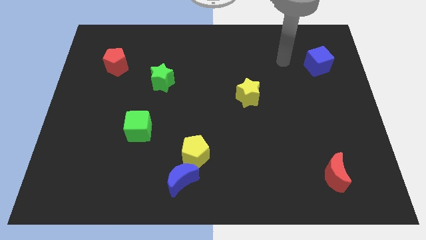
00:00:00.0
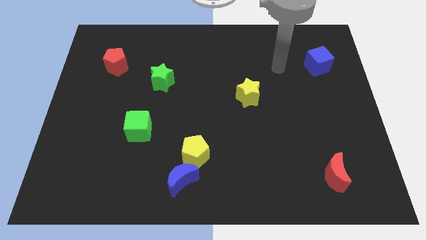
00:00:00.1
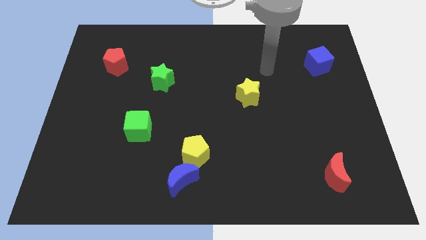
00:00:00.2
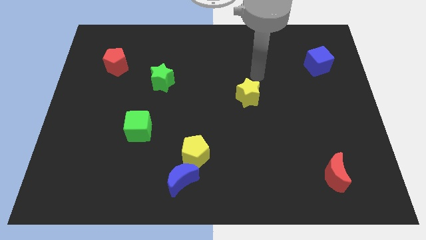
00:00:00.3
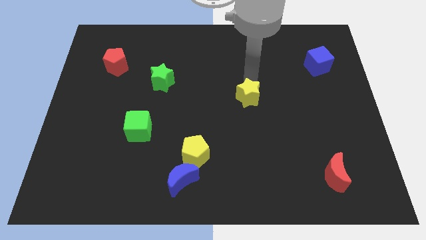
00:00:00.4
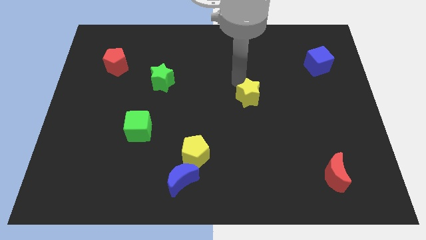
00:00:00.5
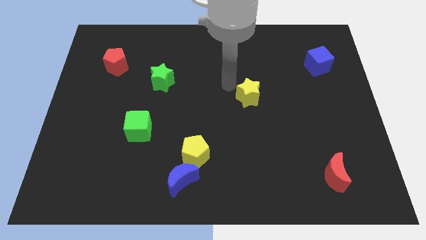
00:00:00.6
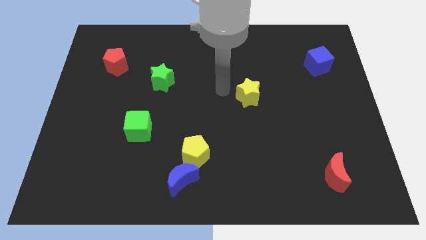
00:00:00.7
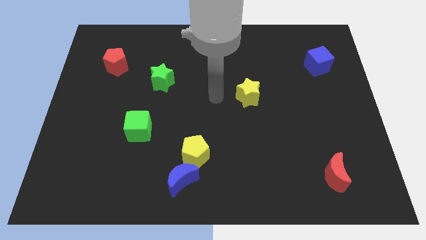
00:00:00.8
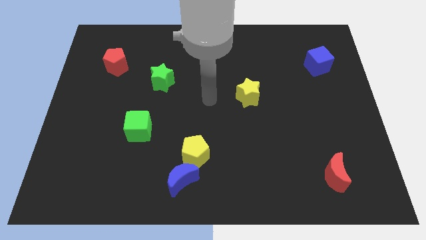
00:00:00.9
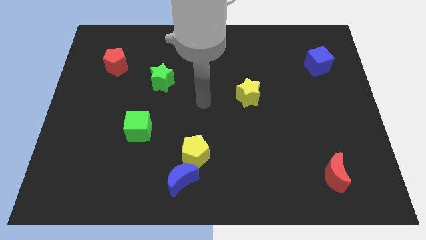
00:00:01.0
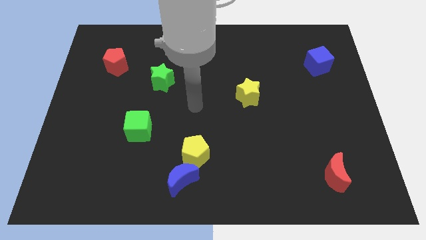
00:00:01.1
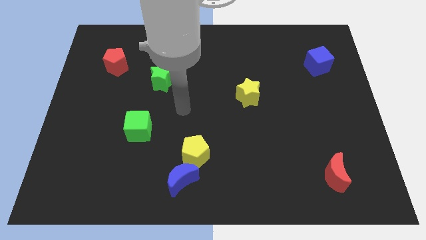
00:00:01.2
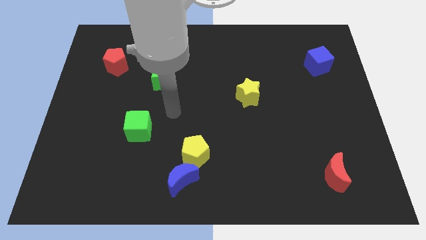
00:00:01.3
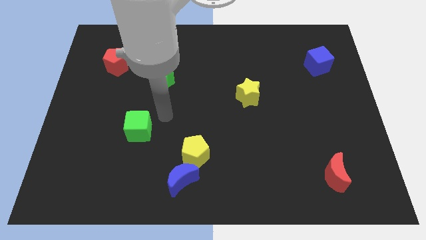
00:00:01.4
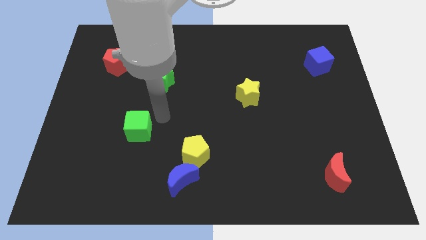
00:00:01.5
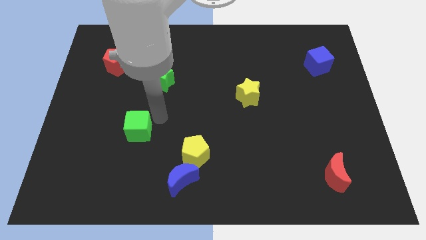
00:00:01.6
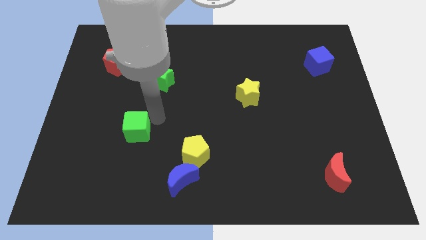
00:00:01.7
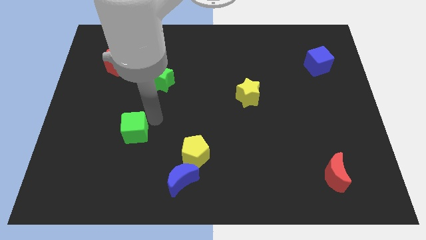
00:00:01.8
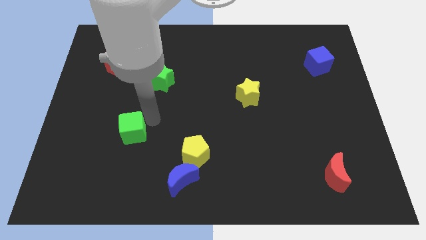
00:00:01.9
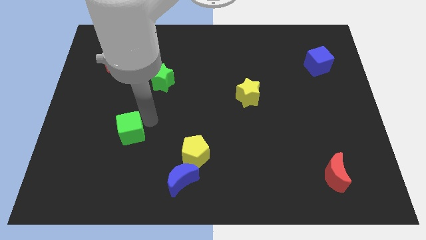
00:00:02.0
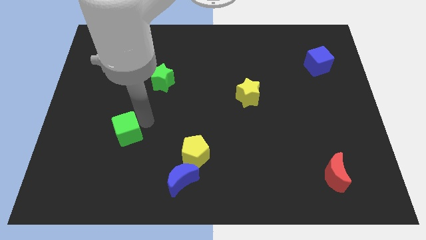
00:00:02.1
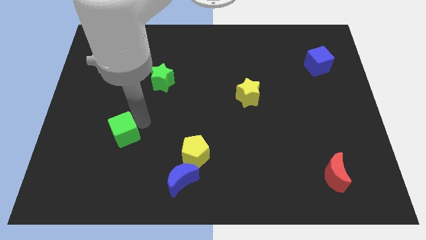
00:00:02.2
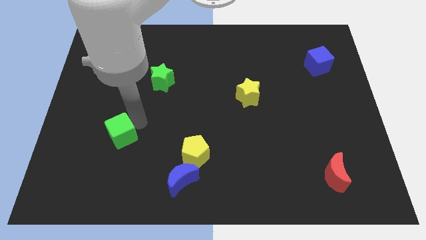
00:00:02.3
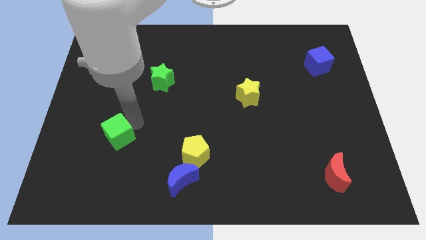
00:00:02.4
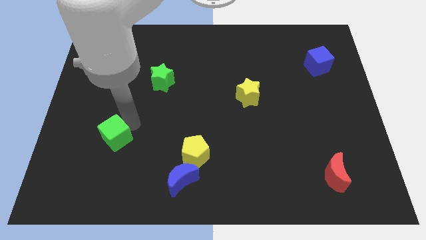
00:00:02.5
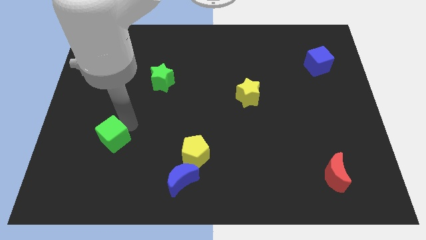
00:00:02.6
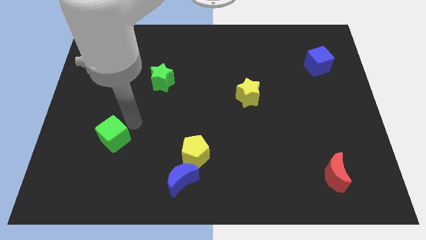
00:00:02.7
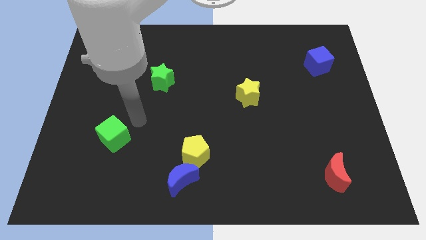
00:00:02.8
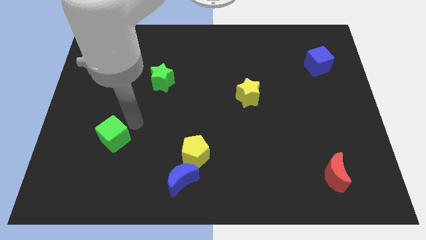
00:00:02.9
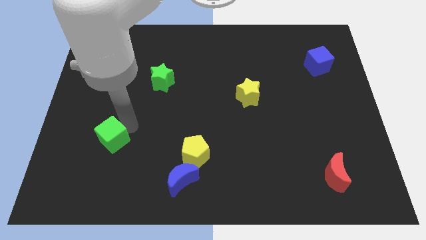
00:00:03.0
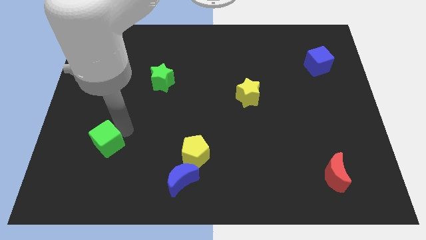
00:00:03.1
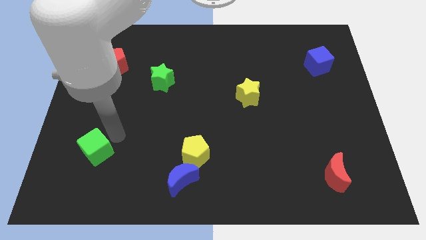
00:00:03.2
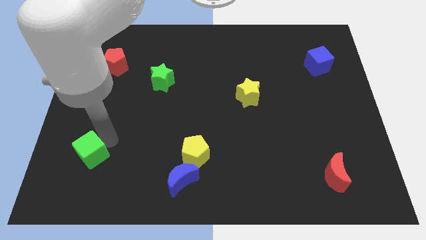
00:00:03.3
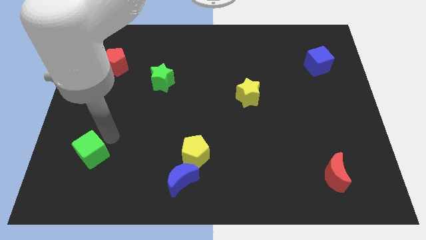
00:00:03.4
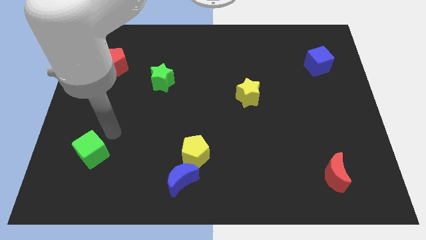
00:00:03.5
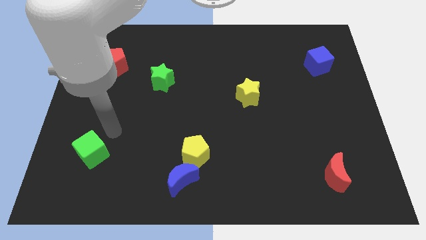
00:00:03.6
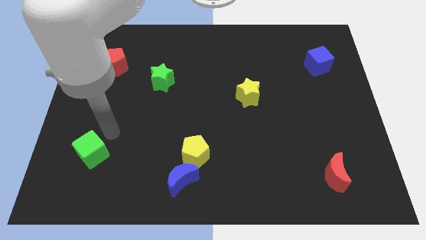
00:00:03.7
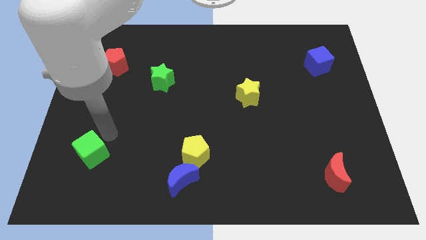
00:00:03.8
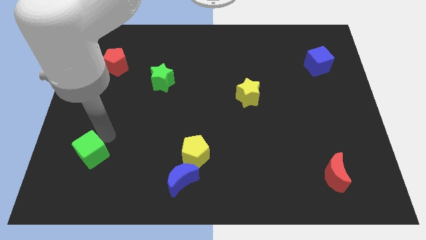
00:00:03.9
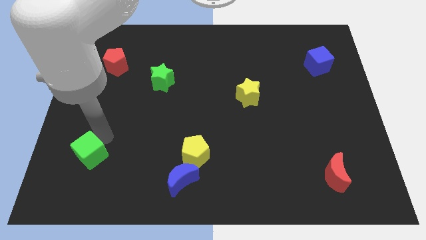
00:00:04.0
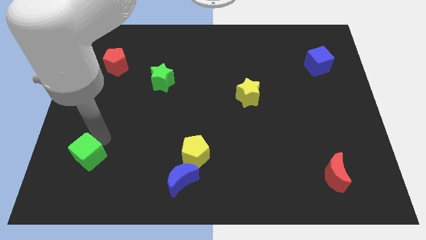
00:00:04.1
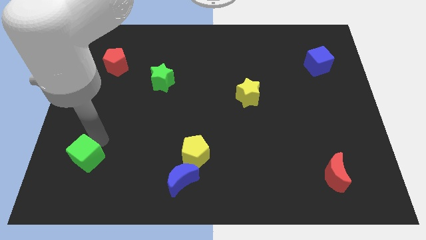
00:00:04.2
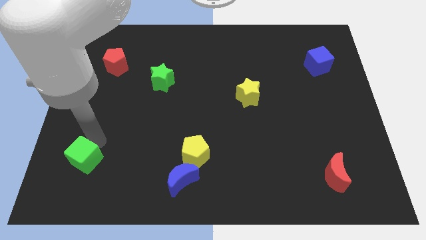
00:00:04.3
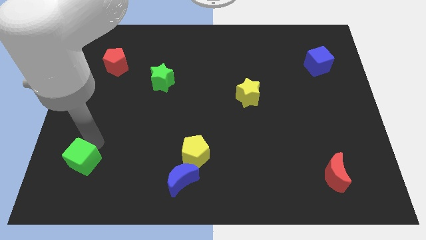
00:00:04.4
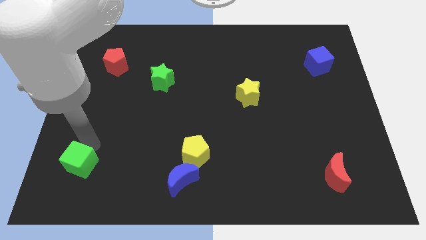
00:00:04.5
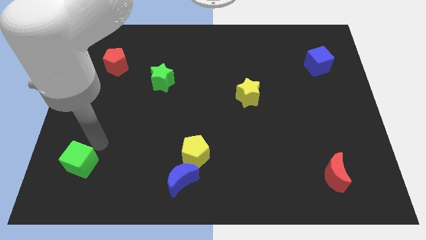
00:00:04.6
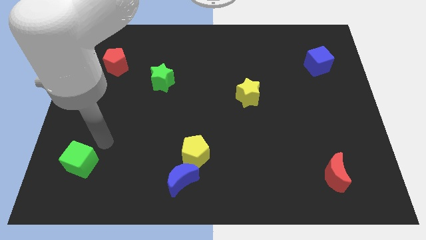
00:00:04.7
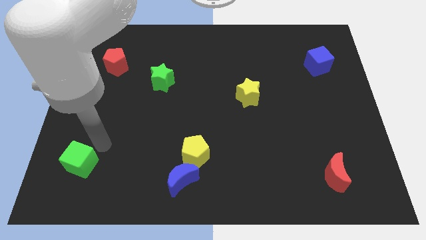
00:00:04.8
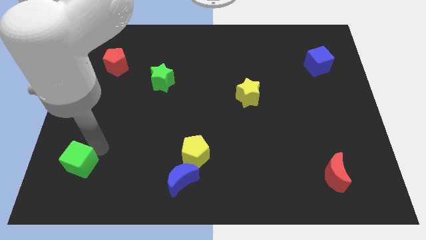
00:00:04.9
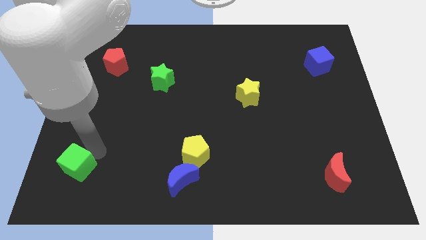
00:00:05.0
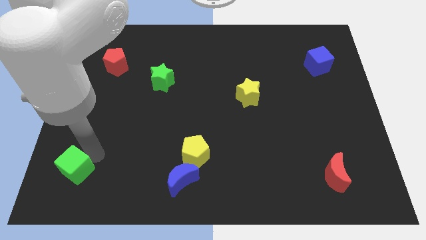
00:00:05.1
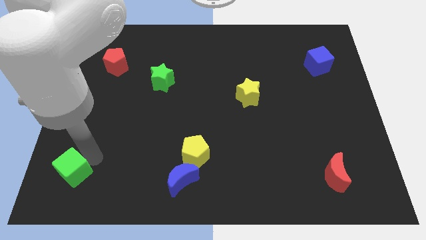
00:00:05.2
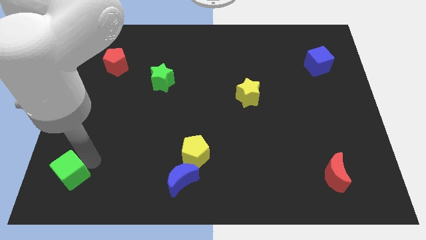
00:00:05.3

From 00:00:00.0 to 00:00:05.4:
put the green cube to the bottom left corner

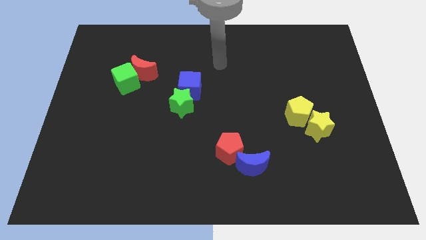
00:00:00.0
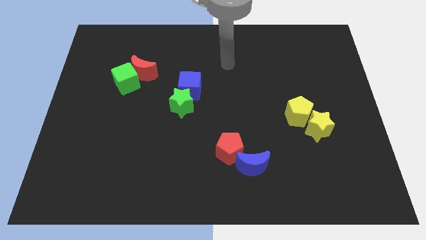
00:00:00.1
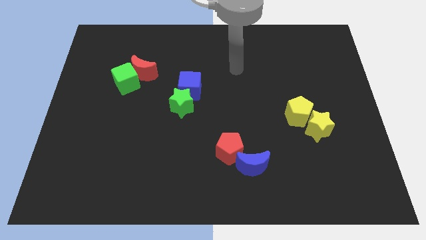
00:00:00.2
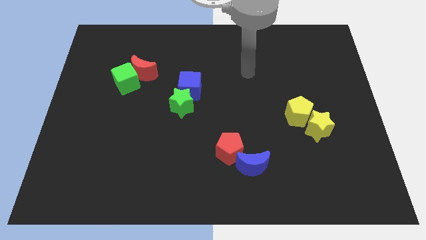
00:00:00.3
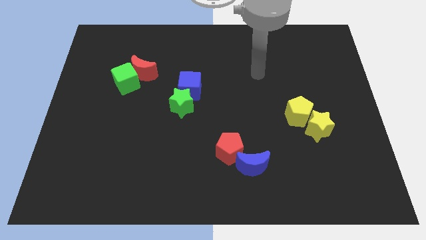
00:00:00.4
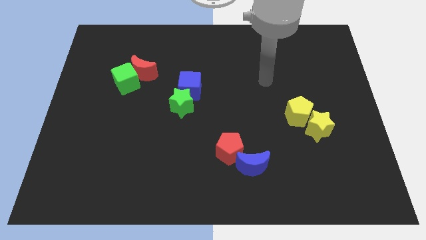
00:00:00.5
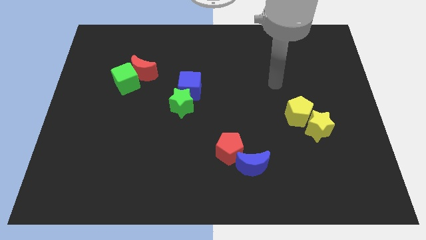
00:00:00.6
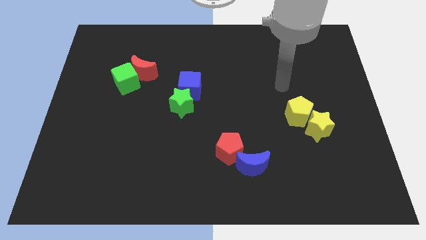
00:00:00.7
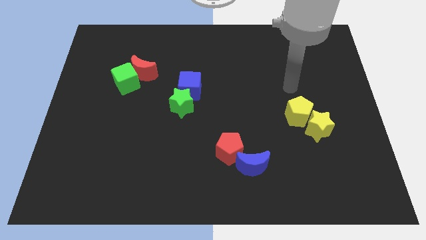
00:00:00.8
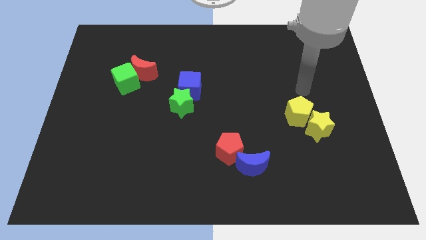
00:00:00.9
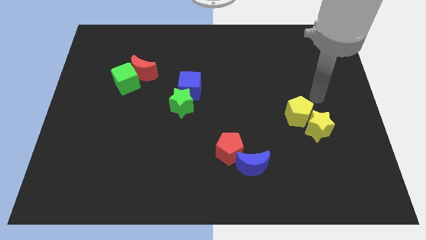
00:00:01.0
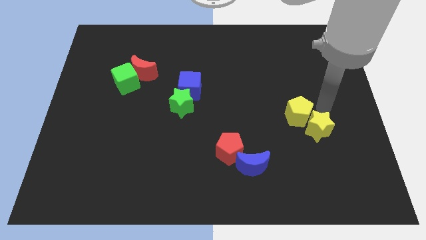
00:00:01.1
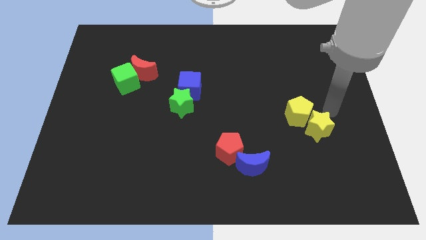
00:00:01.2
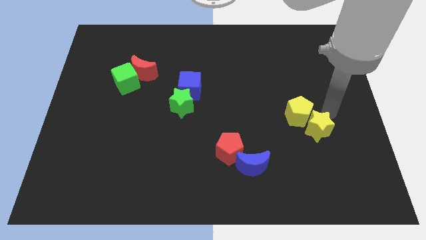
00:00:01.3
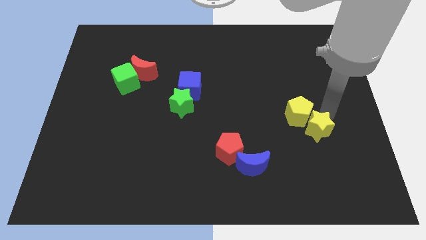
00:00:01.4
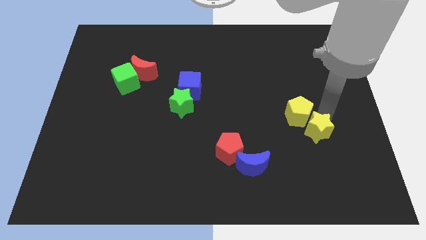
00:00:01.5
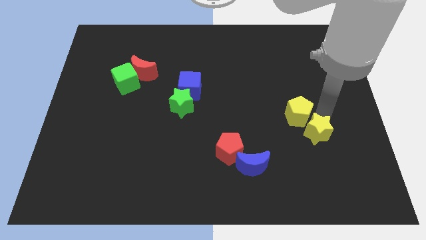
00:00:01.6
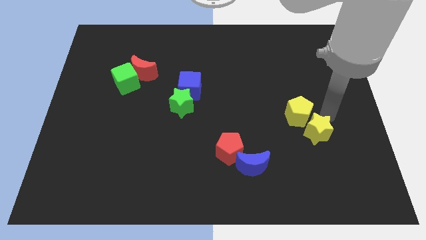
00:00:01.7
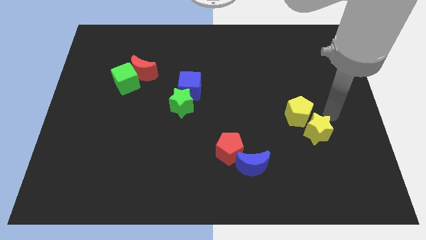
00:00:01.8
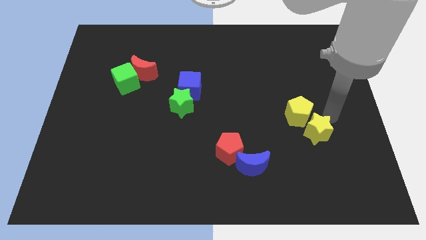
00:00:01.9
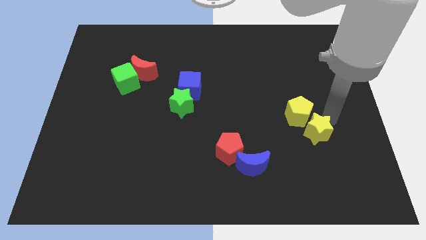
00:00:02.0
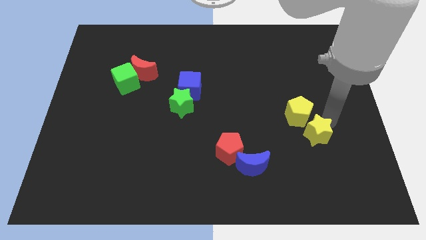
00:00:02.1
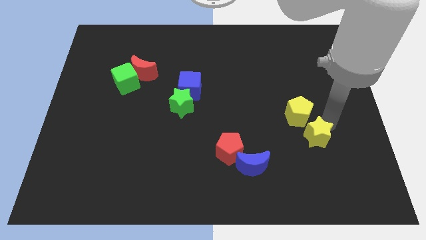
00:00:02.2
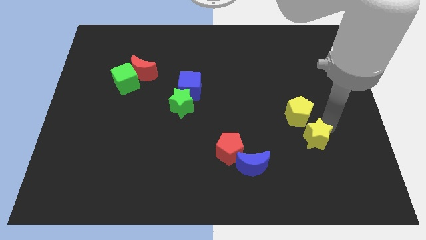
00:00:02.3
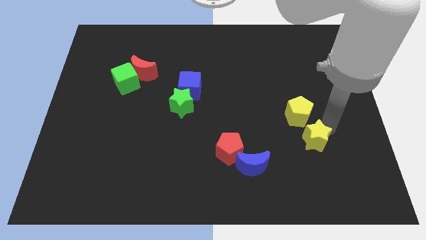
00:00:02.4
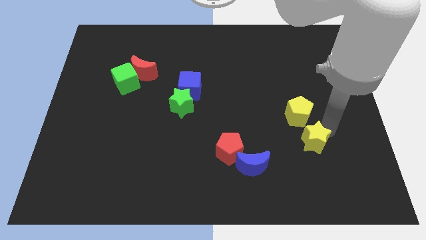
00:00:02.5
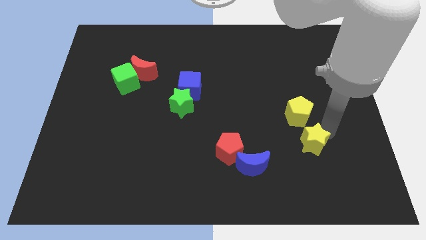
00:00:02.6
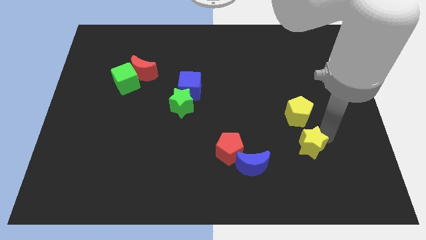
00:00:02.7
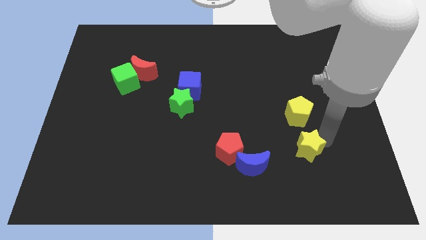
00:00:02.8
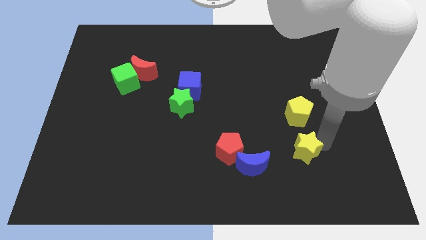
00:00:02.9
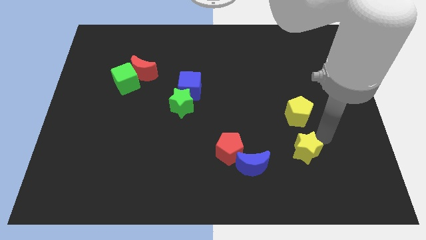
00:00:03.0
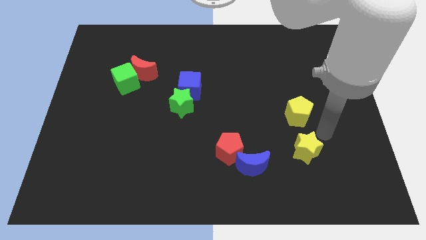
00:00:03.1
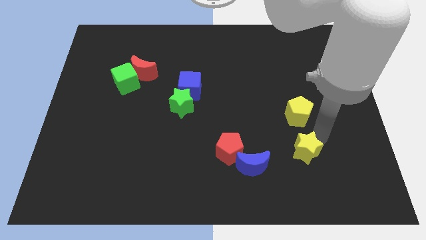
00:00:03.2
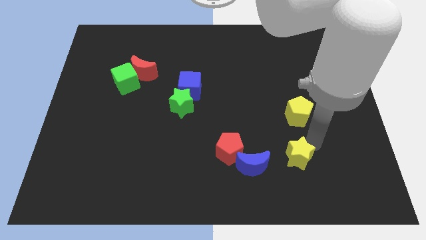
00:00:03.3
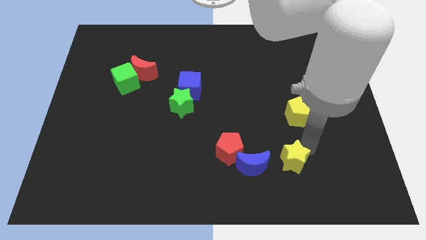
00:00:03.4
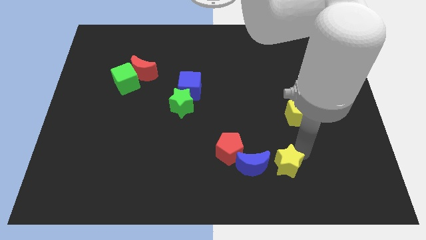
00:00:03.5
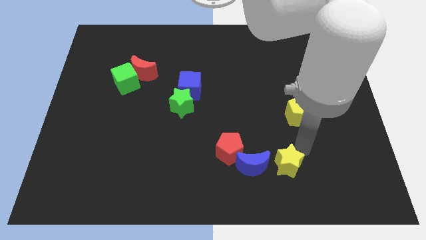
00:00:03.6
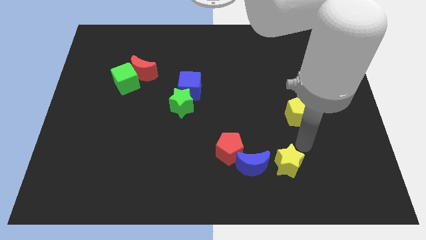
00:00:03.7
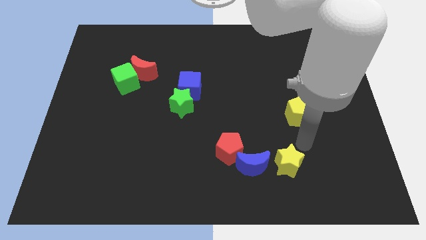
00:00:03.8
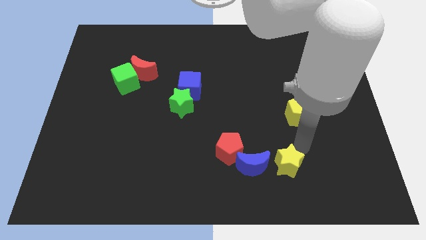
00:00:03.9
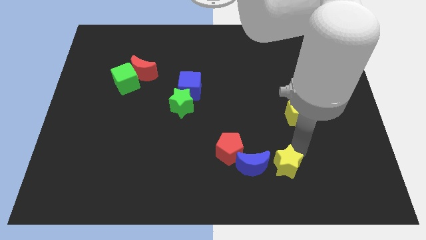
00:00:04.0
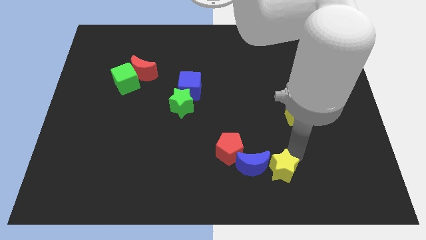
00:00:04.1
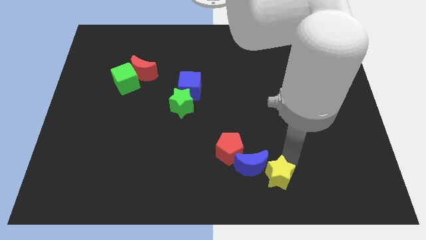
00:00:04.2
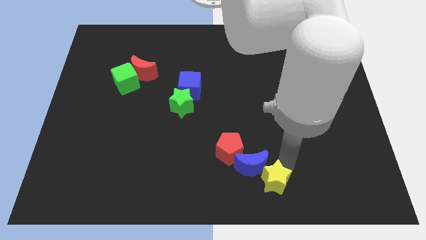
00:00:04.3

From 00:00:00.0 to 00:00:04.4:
push the yellow star to the bottom
